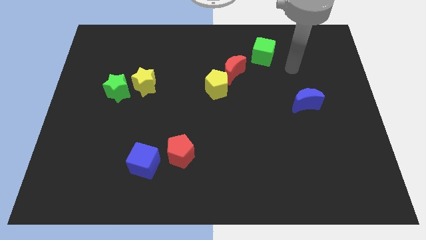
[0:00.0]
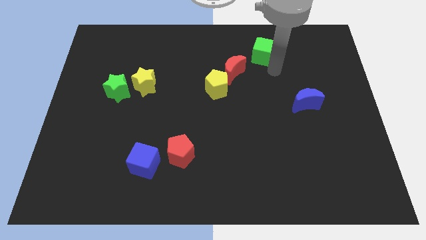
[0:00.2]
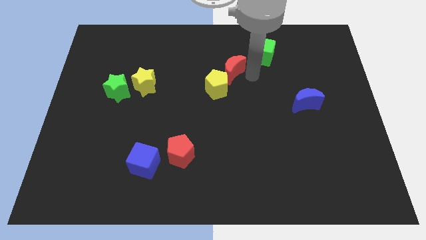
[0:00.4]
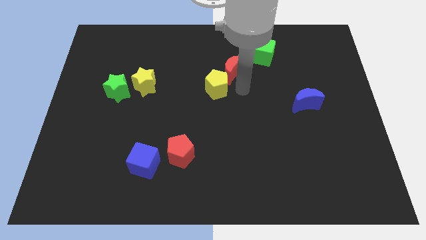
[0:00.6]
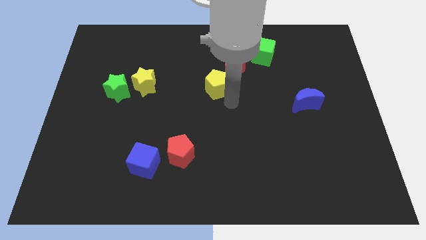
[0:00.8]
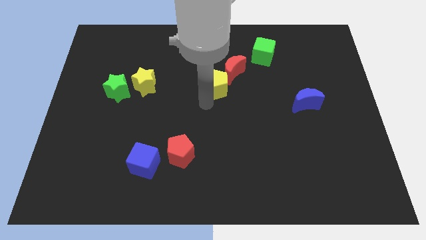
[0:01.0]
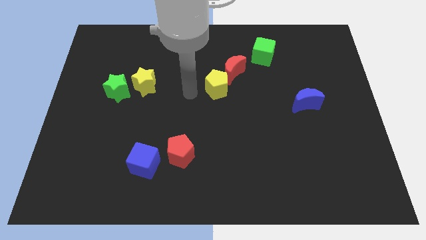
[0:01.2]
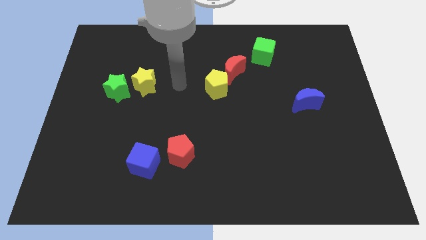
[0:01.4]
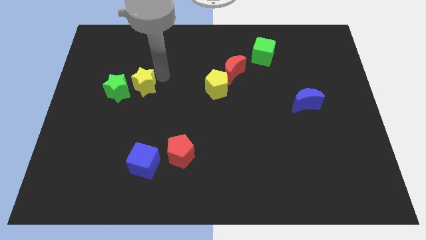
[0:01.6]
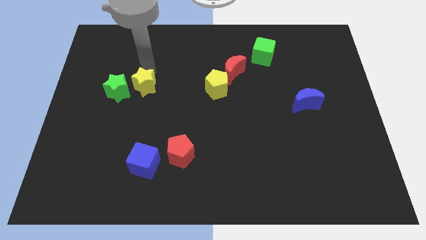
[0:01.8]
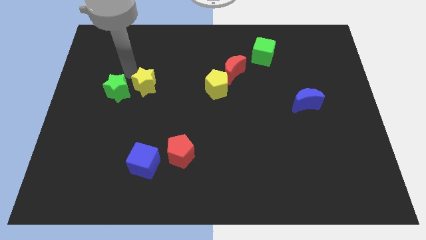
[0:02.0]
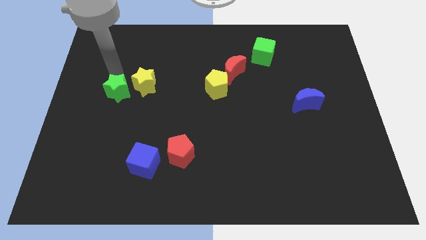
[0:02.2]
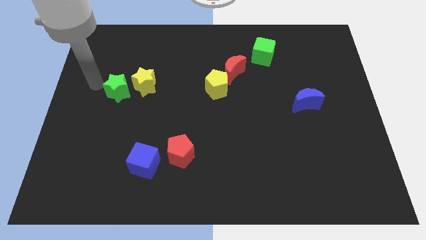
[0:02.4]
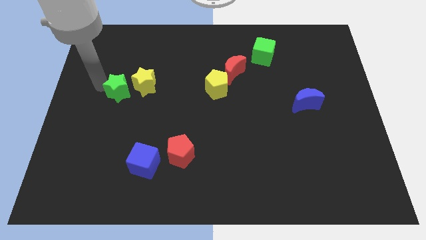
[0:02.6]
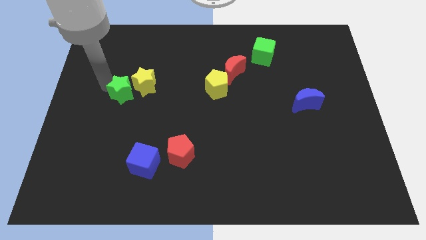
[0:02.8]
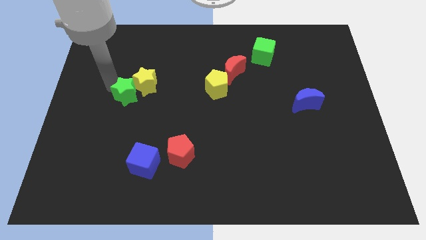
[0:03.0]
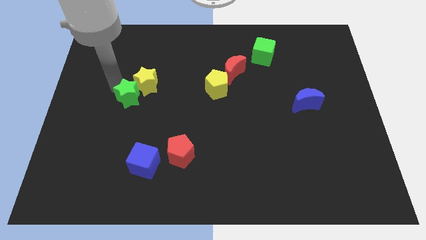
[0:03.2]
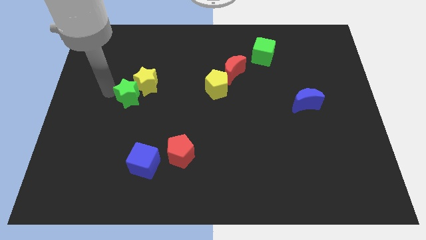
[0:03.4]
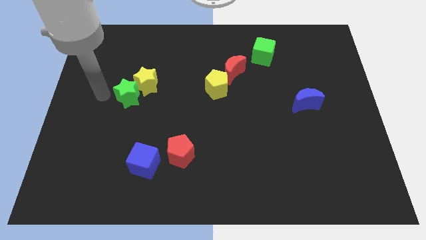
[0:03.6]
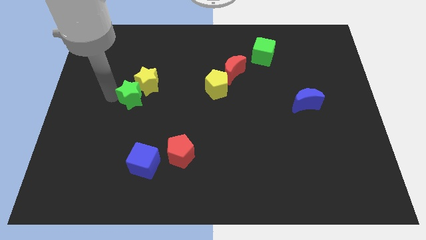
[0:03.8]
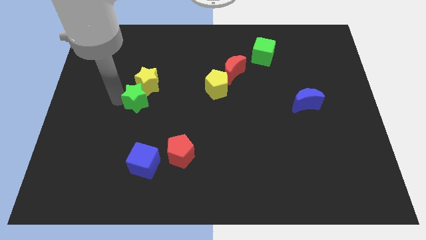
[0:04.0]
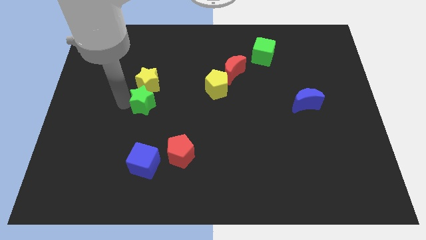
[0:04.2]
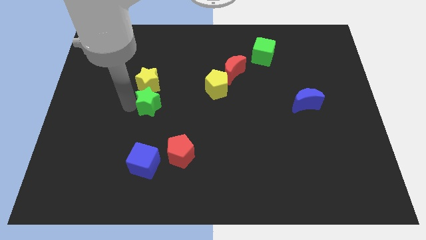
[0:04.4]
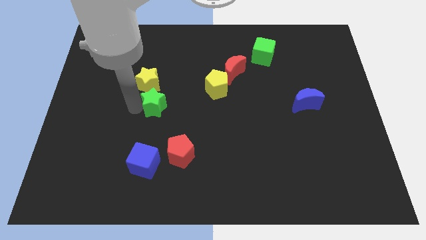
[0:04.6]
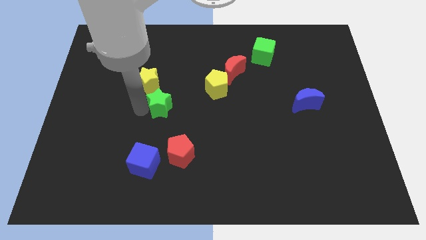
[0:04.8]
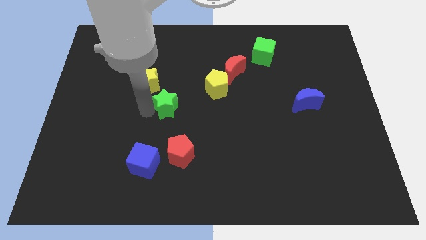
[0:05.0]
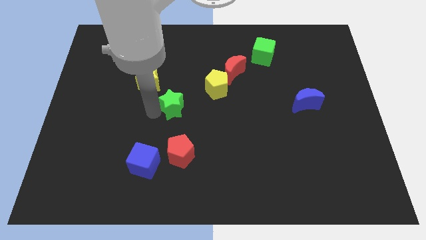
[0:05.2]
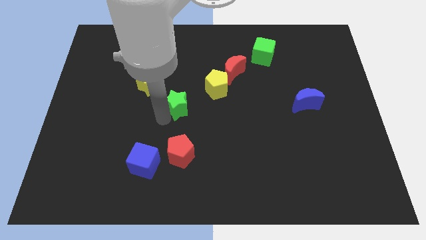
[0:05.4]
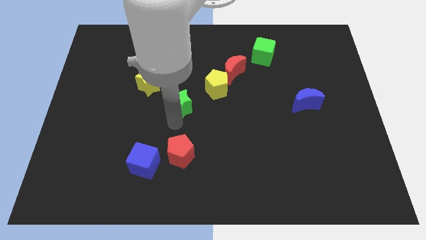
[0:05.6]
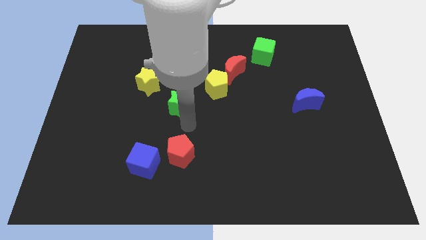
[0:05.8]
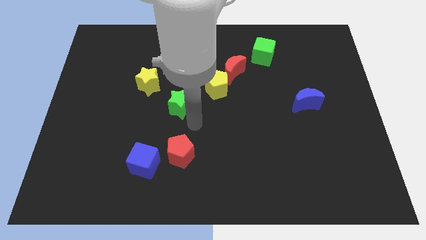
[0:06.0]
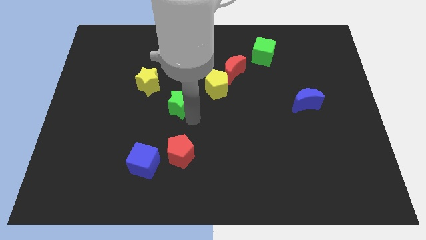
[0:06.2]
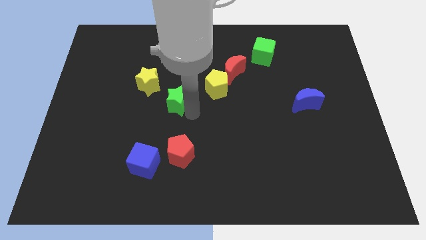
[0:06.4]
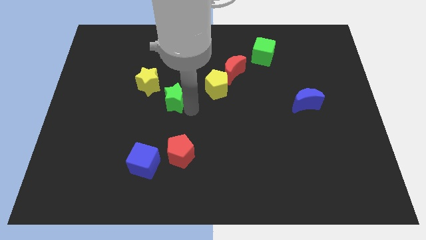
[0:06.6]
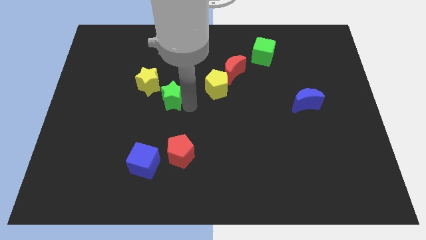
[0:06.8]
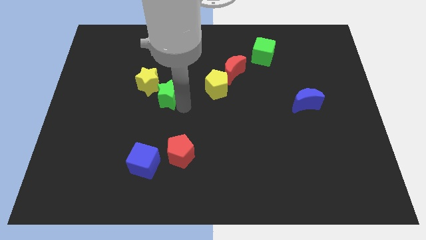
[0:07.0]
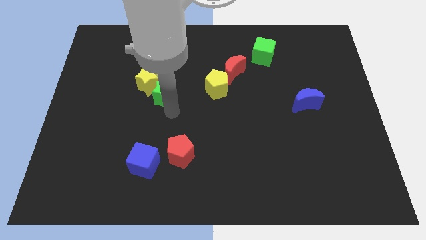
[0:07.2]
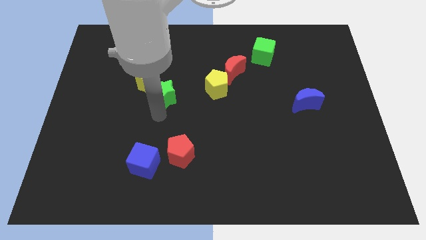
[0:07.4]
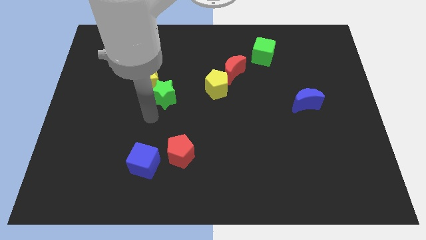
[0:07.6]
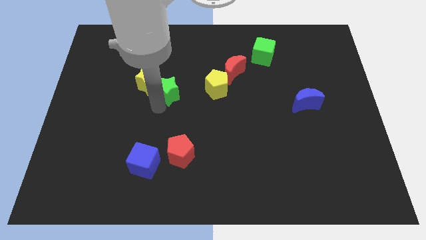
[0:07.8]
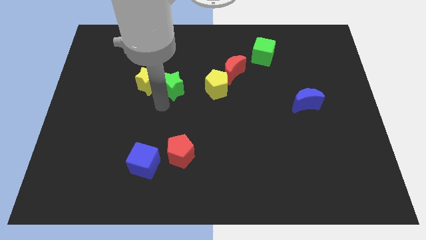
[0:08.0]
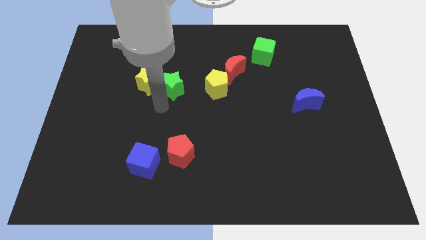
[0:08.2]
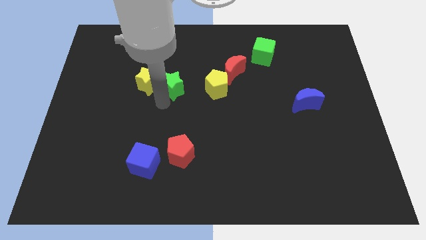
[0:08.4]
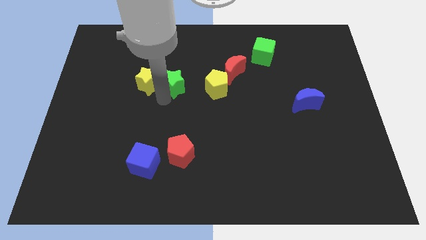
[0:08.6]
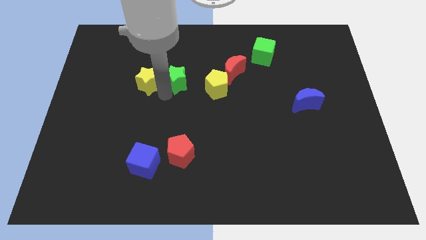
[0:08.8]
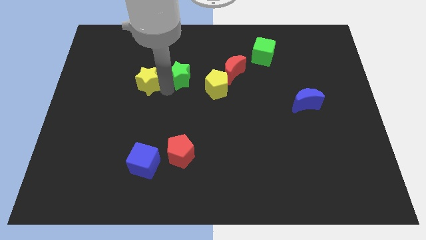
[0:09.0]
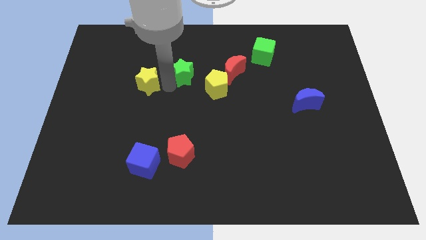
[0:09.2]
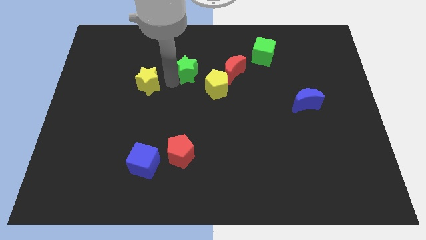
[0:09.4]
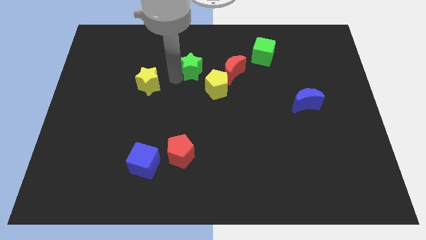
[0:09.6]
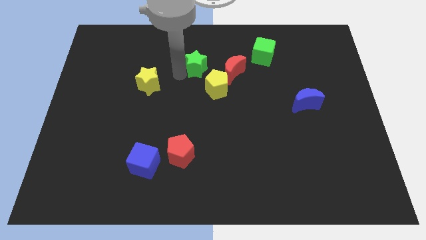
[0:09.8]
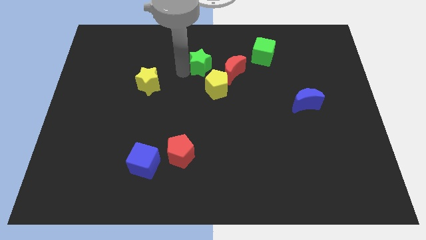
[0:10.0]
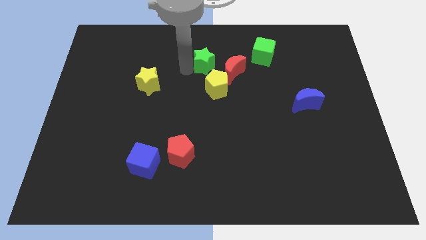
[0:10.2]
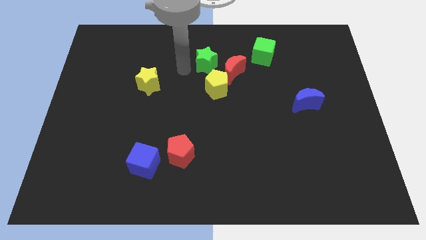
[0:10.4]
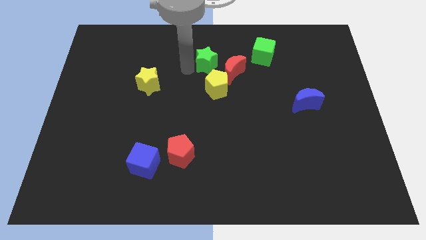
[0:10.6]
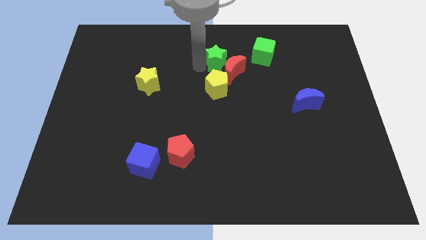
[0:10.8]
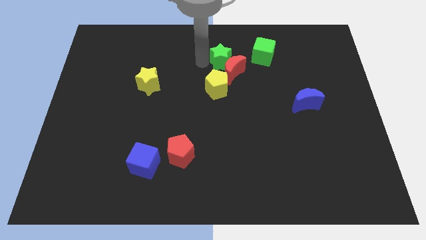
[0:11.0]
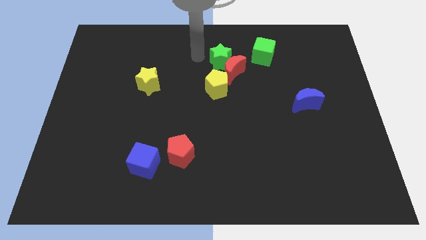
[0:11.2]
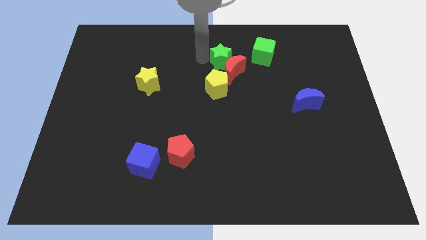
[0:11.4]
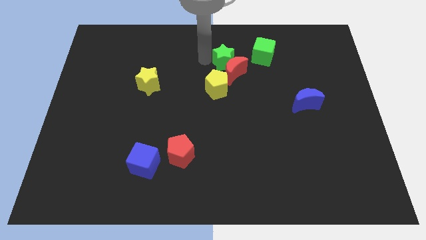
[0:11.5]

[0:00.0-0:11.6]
put the green star to the top right of the yellow pentagon

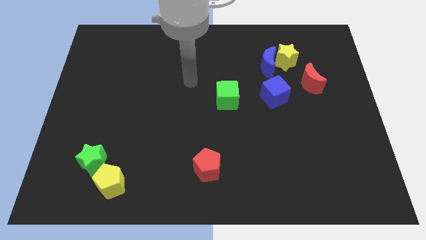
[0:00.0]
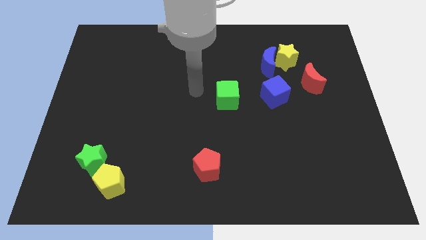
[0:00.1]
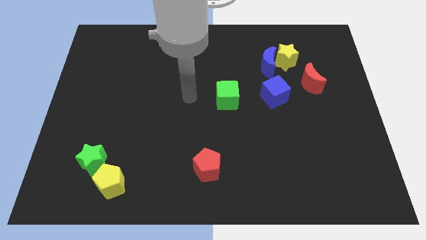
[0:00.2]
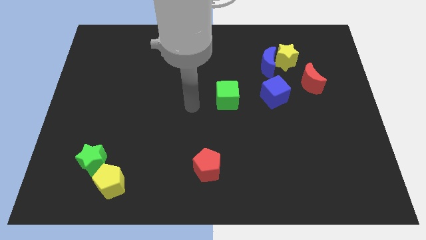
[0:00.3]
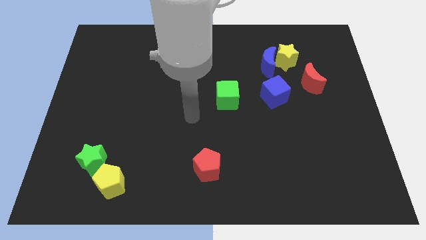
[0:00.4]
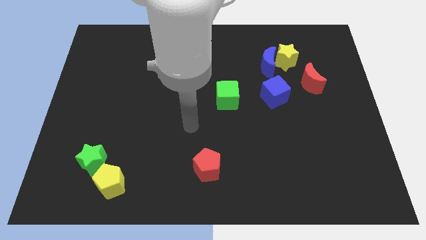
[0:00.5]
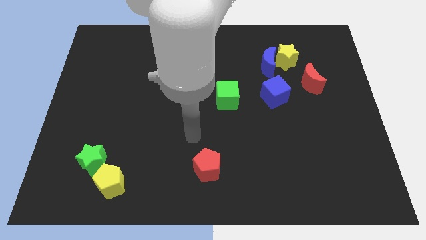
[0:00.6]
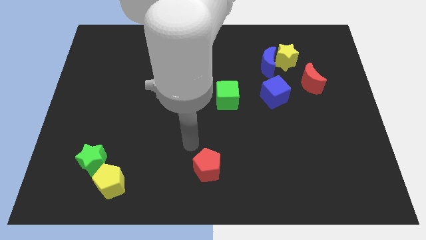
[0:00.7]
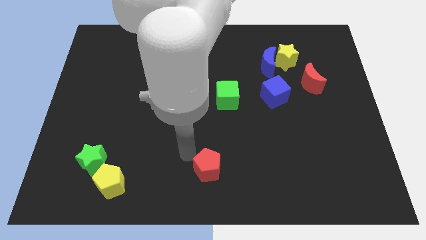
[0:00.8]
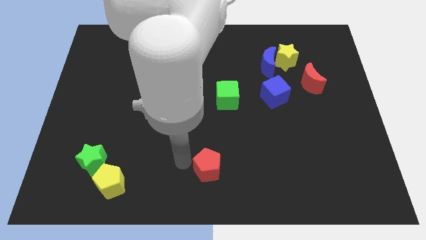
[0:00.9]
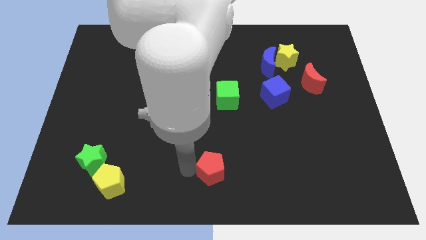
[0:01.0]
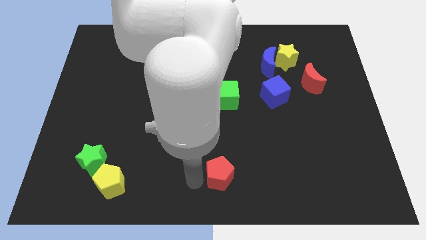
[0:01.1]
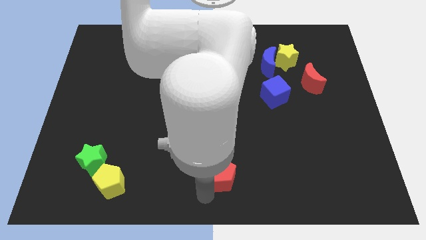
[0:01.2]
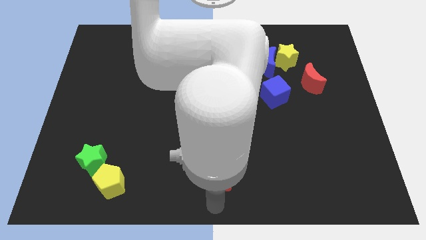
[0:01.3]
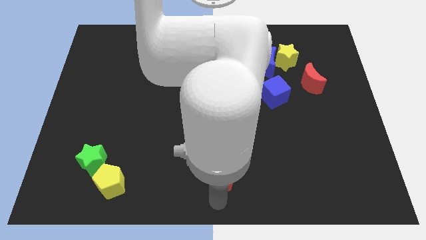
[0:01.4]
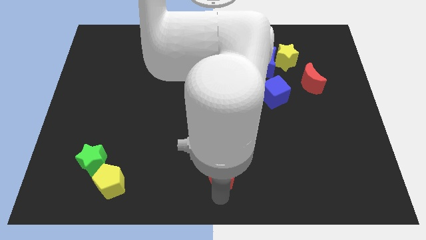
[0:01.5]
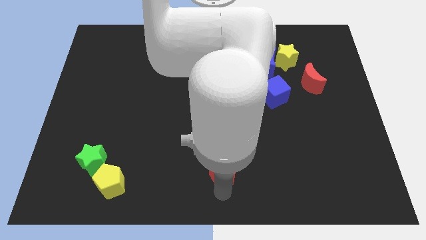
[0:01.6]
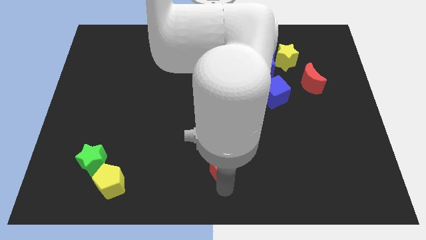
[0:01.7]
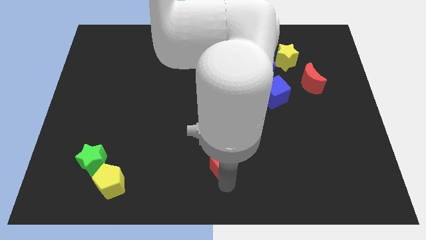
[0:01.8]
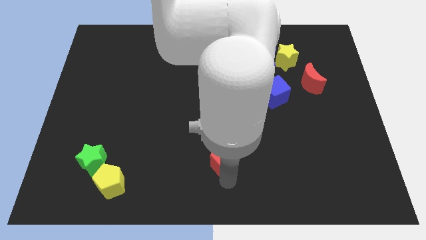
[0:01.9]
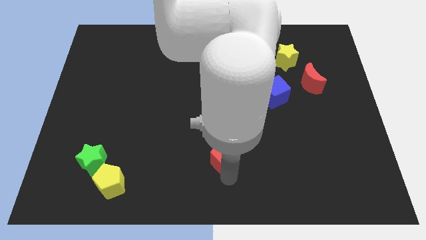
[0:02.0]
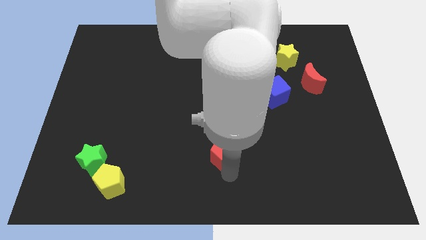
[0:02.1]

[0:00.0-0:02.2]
move the red pentagon to the bottom side of the green cube
